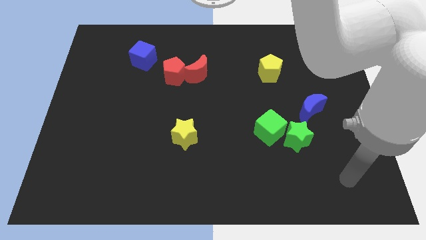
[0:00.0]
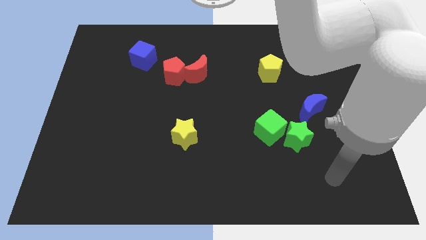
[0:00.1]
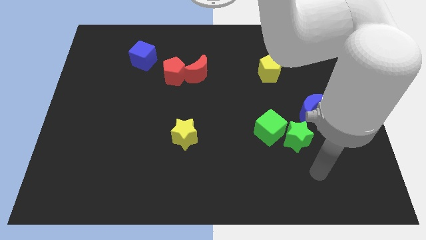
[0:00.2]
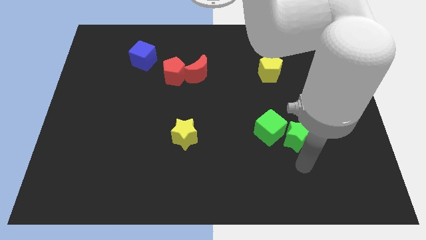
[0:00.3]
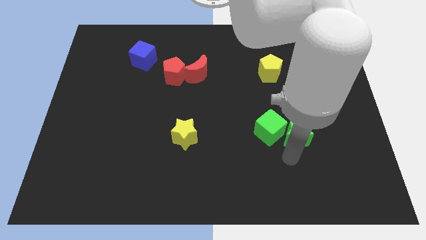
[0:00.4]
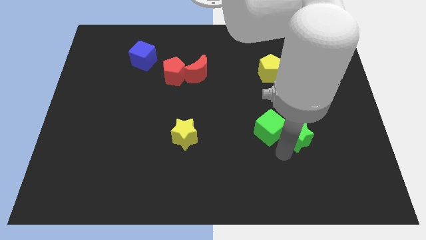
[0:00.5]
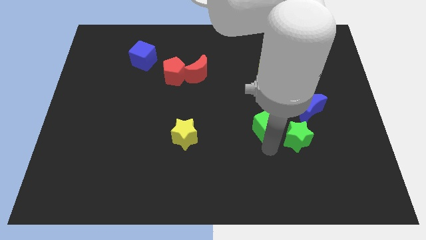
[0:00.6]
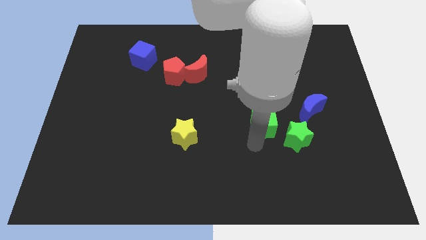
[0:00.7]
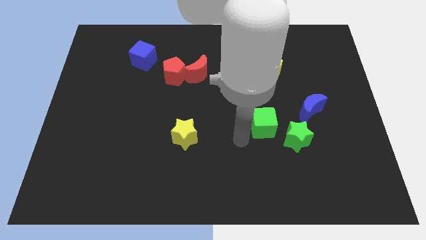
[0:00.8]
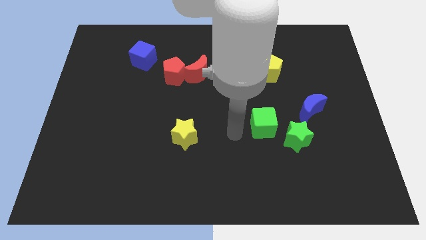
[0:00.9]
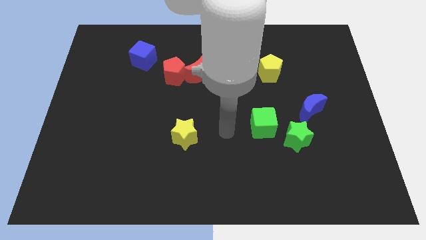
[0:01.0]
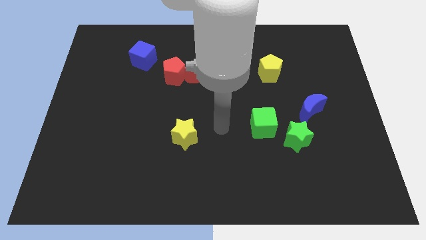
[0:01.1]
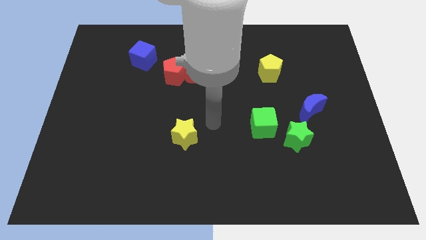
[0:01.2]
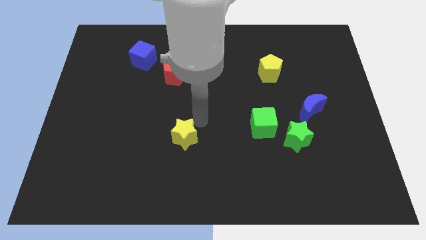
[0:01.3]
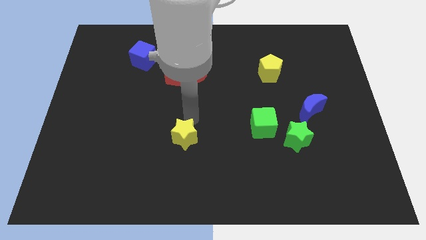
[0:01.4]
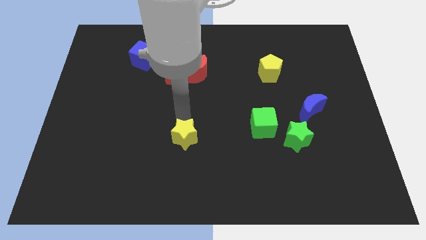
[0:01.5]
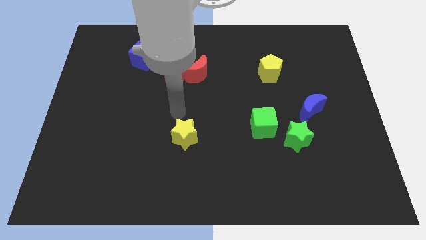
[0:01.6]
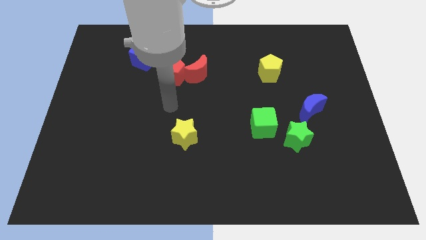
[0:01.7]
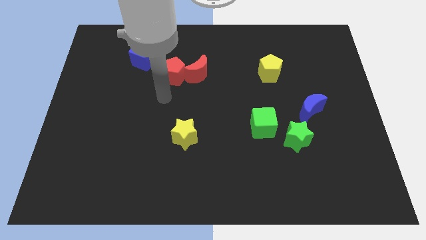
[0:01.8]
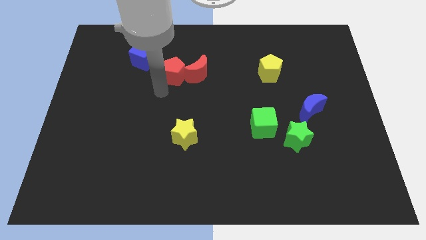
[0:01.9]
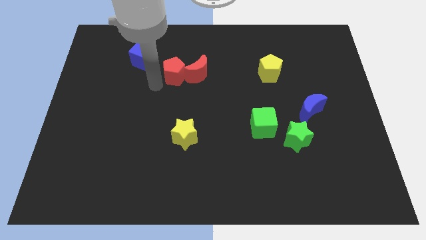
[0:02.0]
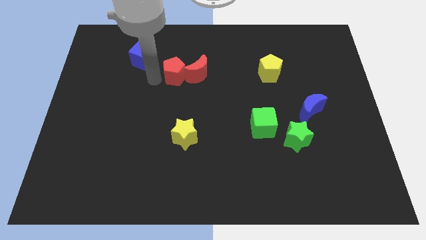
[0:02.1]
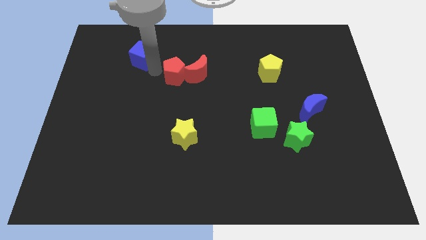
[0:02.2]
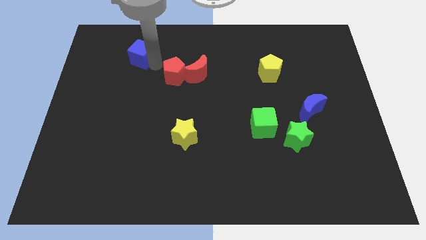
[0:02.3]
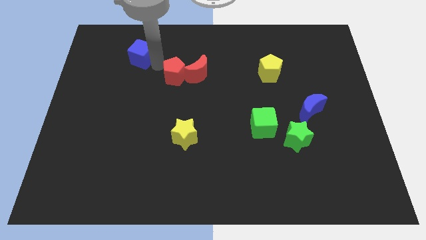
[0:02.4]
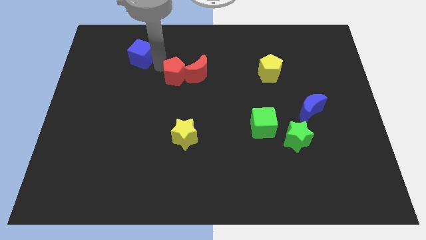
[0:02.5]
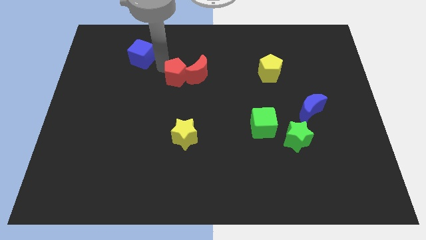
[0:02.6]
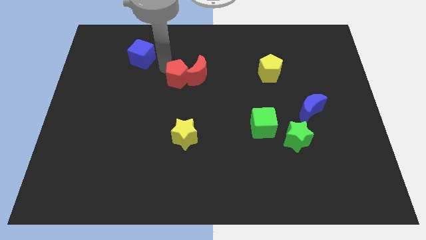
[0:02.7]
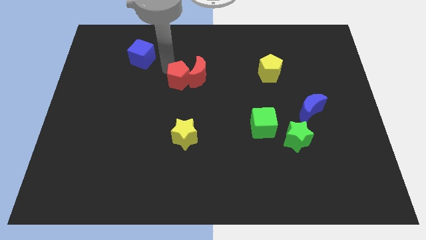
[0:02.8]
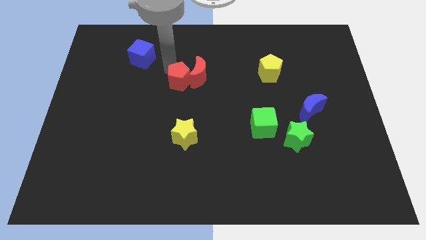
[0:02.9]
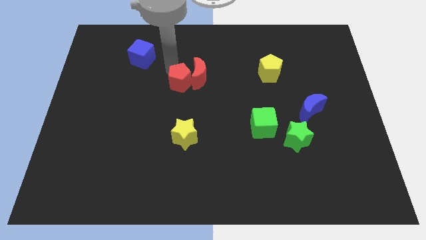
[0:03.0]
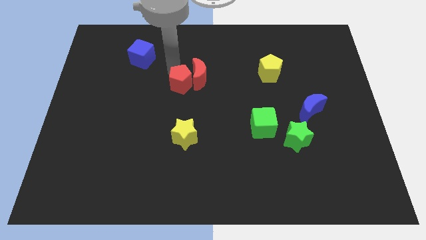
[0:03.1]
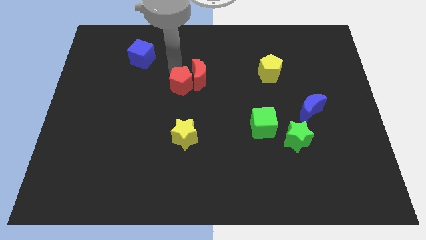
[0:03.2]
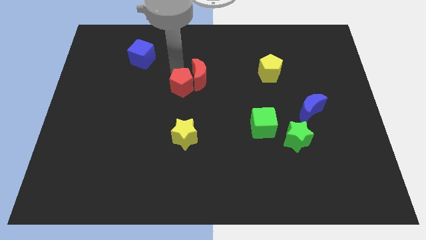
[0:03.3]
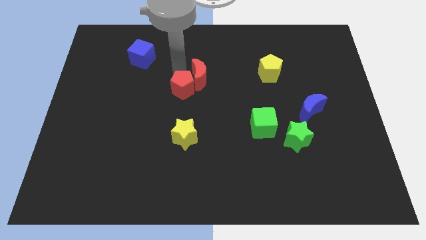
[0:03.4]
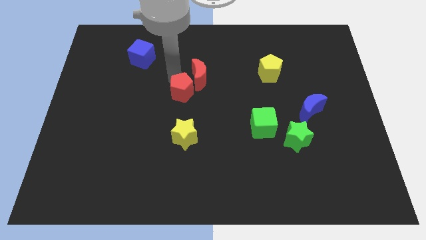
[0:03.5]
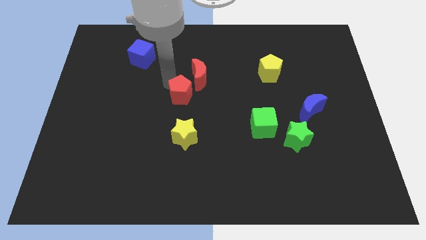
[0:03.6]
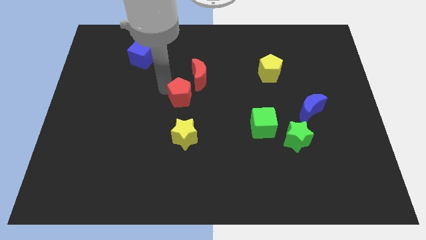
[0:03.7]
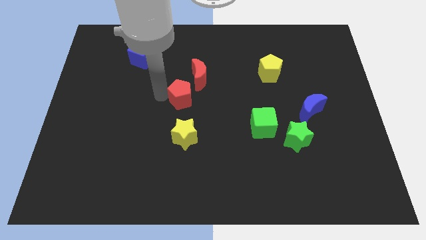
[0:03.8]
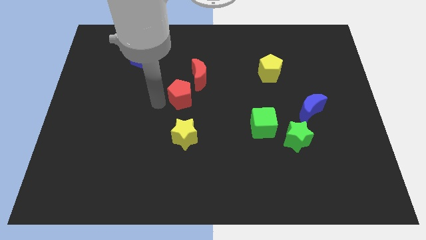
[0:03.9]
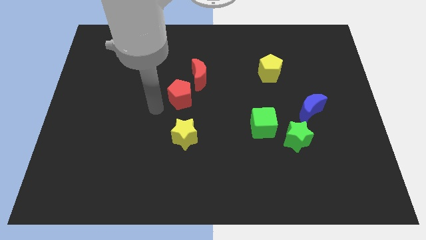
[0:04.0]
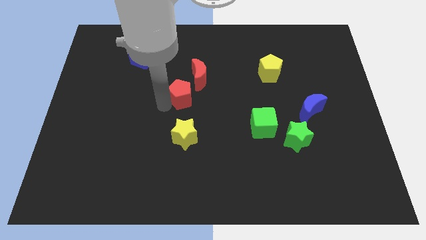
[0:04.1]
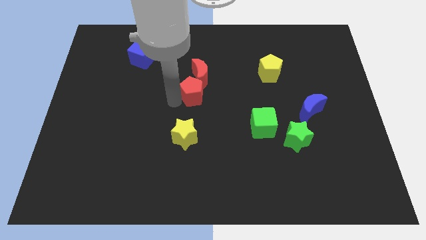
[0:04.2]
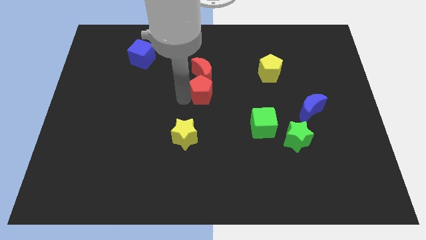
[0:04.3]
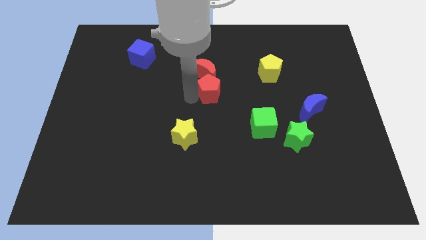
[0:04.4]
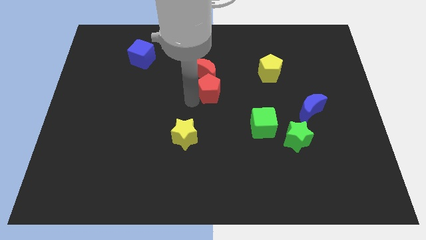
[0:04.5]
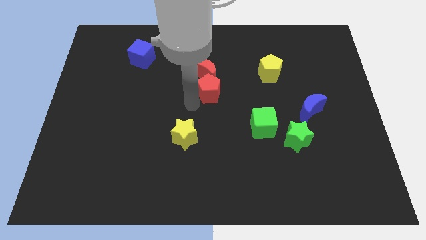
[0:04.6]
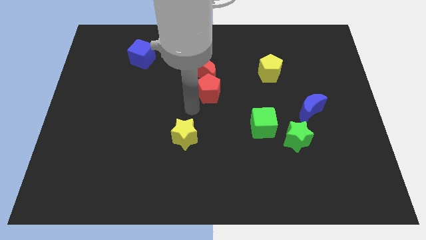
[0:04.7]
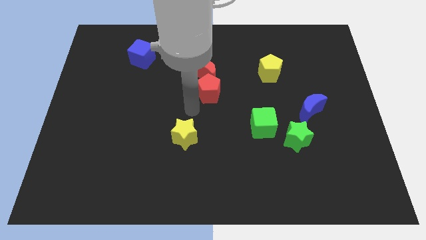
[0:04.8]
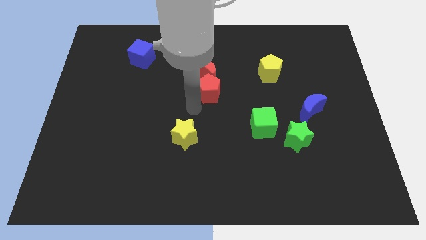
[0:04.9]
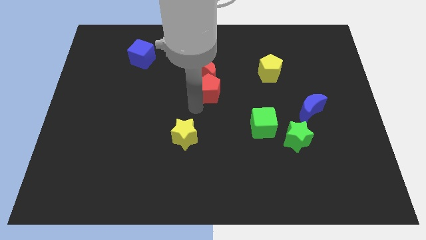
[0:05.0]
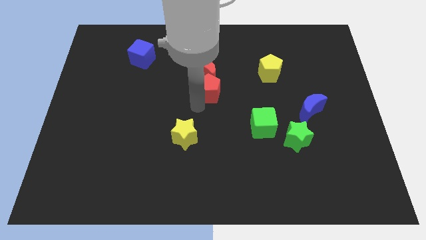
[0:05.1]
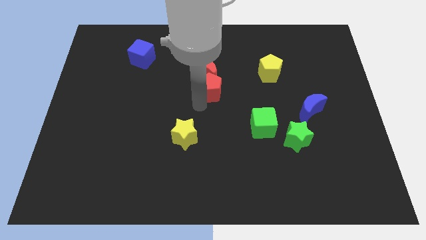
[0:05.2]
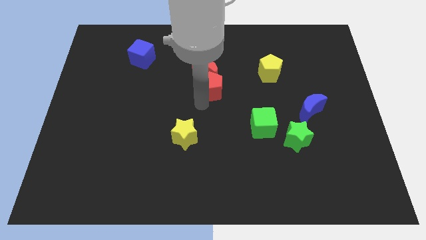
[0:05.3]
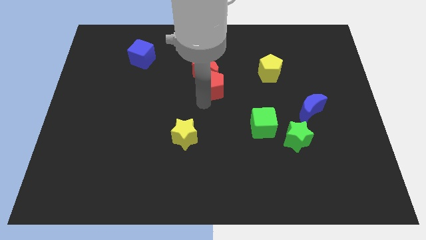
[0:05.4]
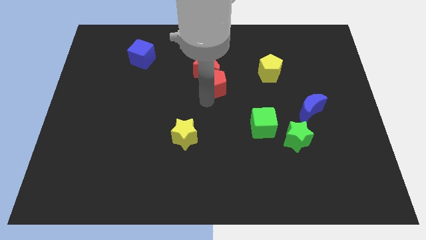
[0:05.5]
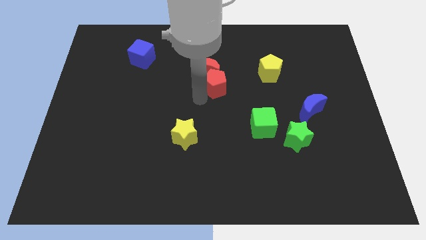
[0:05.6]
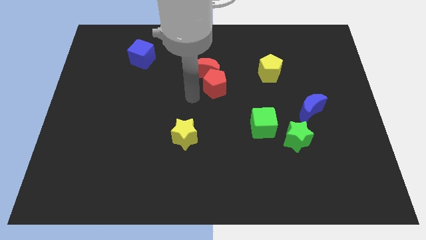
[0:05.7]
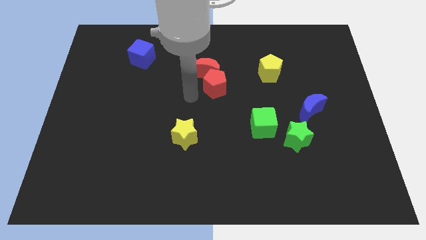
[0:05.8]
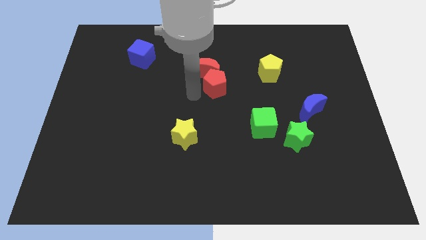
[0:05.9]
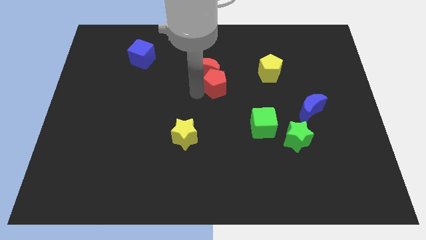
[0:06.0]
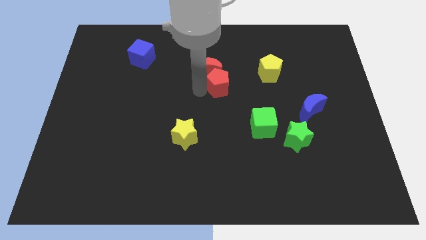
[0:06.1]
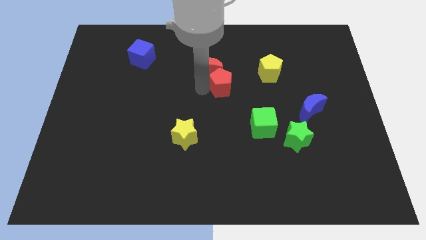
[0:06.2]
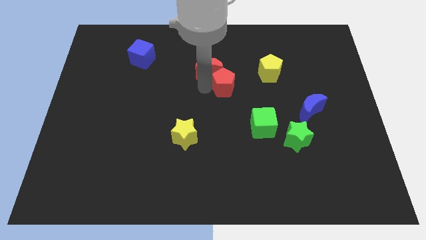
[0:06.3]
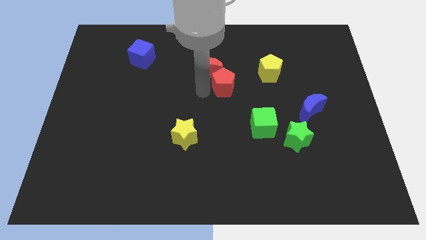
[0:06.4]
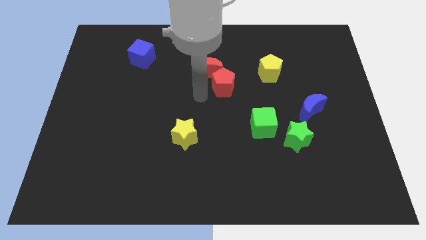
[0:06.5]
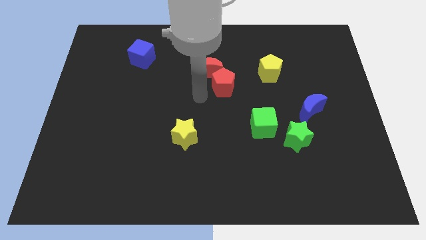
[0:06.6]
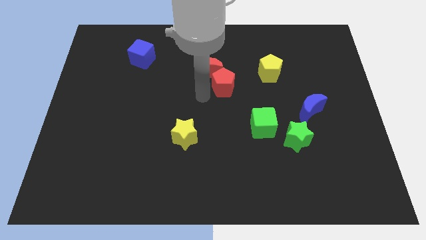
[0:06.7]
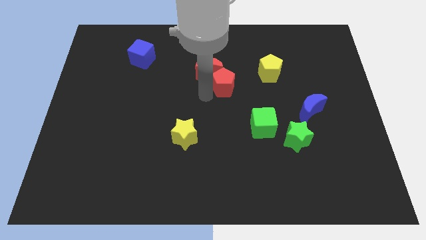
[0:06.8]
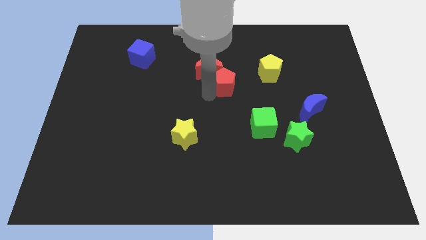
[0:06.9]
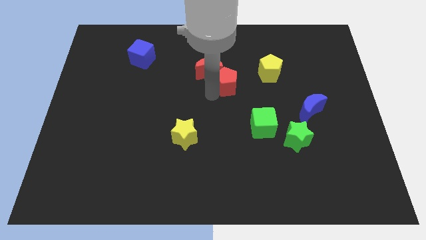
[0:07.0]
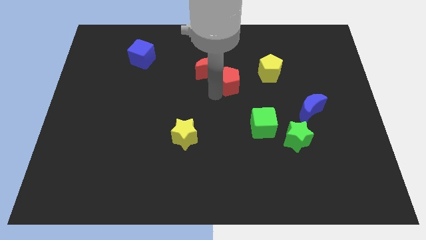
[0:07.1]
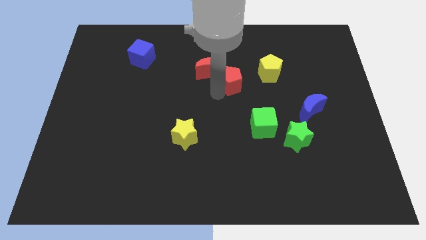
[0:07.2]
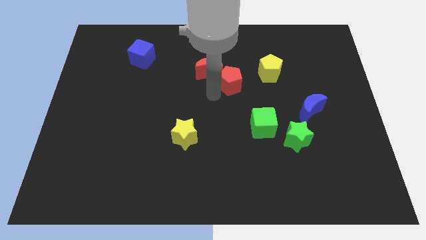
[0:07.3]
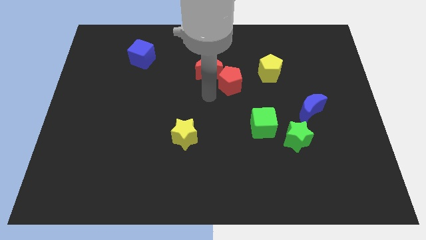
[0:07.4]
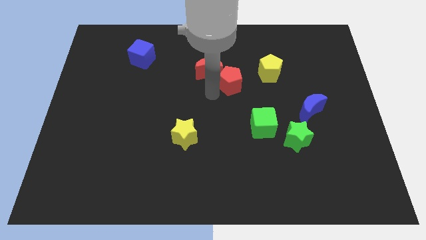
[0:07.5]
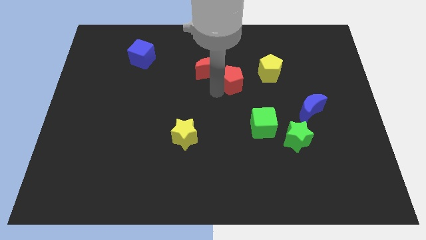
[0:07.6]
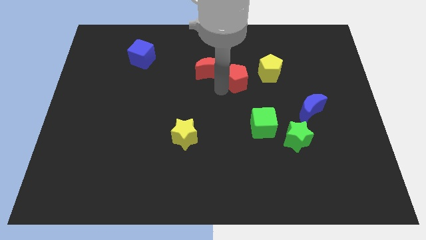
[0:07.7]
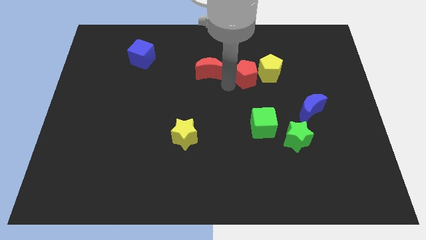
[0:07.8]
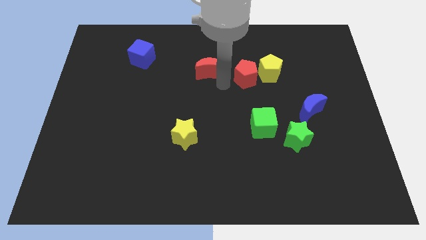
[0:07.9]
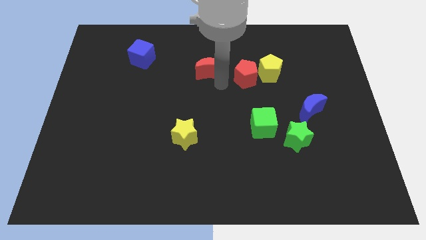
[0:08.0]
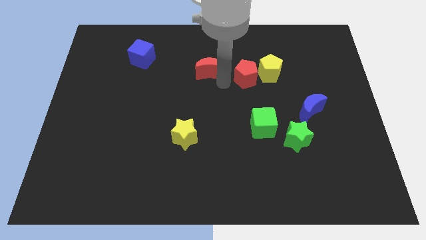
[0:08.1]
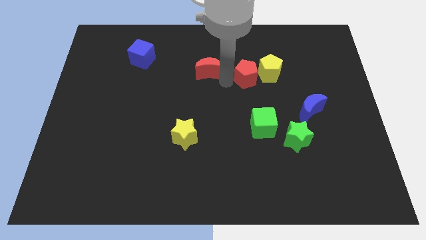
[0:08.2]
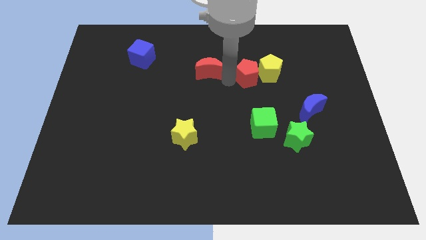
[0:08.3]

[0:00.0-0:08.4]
slide the red pentagon next to the yellow pentagon
